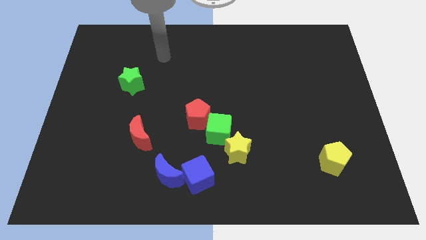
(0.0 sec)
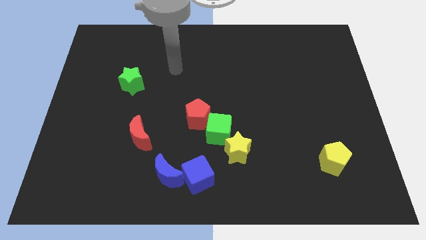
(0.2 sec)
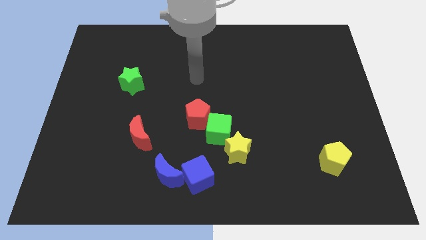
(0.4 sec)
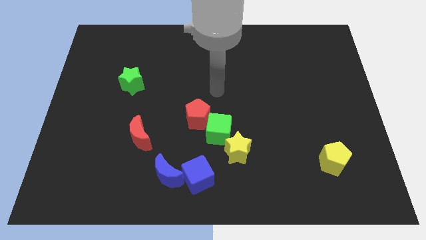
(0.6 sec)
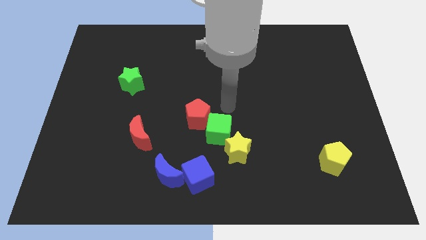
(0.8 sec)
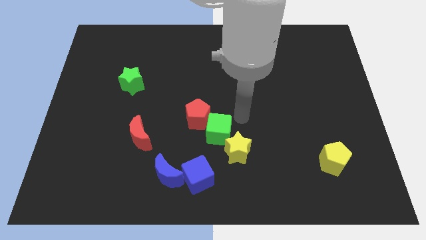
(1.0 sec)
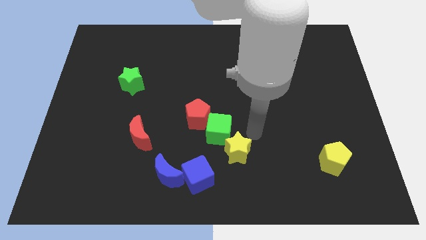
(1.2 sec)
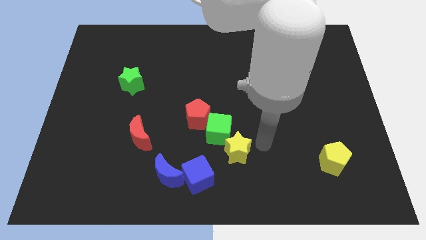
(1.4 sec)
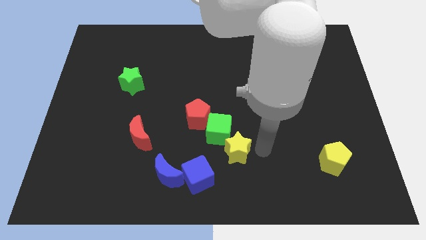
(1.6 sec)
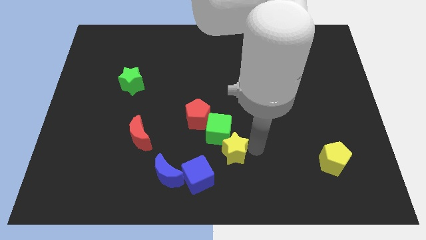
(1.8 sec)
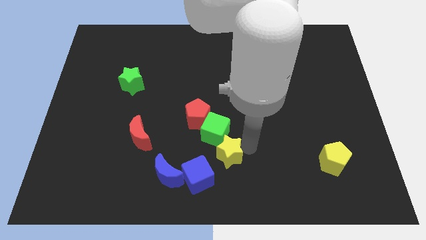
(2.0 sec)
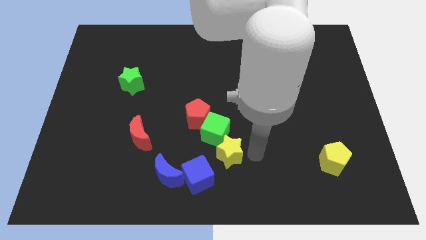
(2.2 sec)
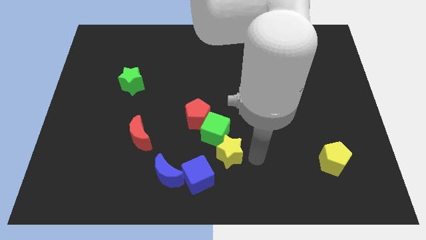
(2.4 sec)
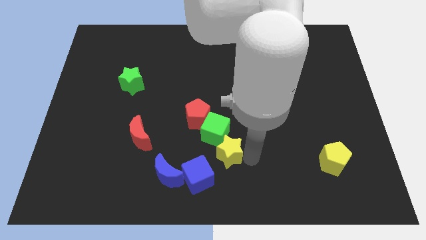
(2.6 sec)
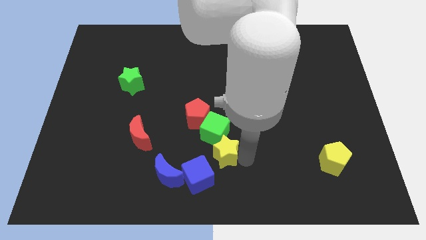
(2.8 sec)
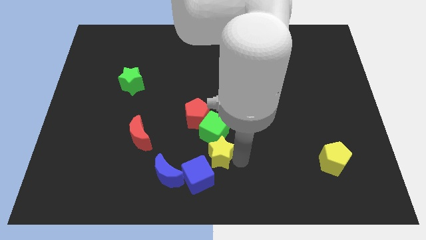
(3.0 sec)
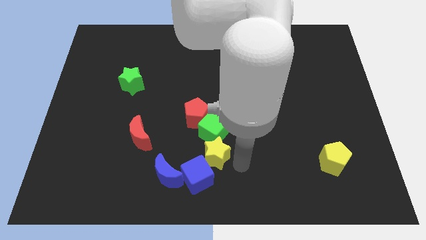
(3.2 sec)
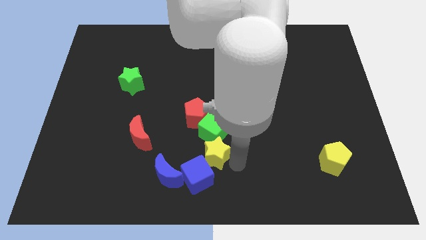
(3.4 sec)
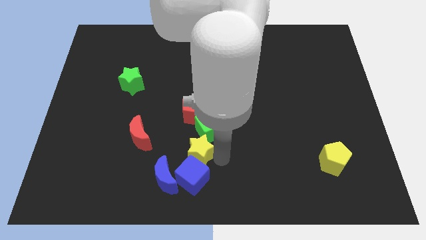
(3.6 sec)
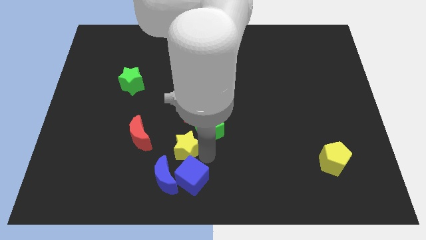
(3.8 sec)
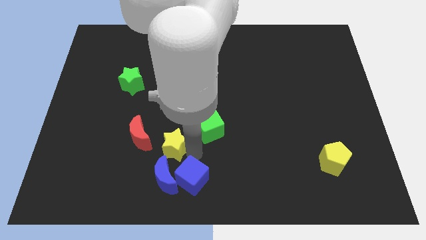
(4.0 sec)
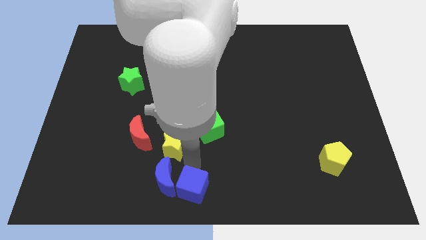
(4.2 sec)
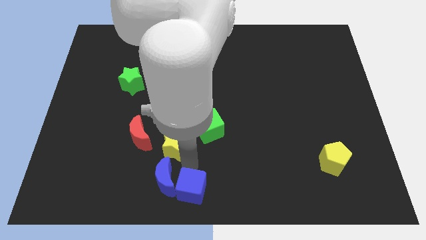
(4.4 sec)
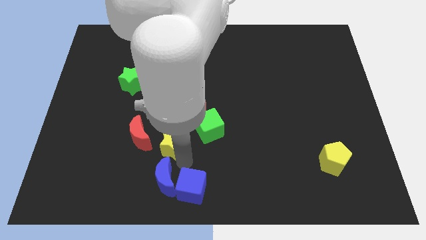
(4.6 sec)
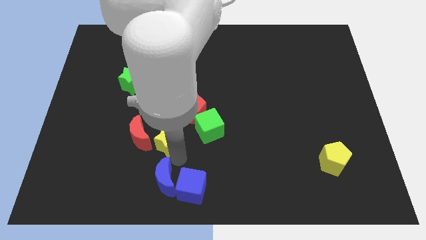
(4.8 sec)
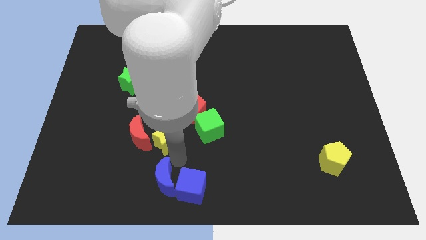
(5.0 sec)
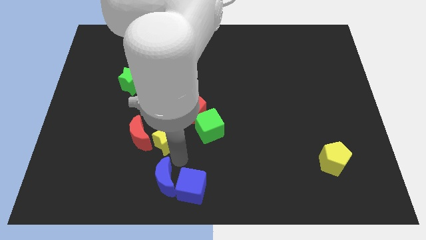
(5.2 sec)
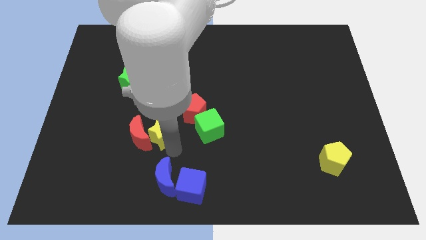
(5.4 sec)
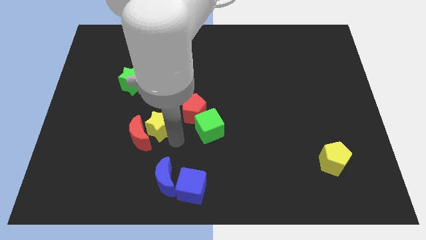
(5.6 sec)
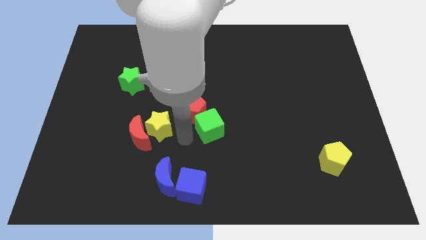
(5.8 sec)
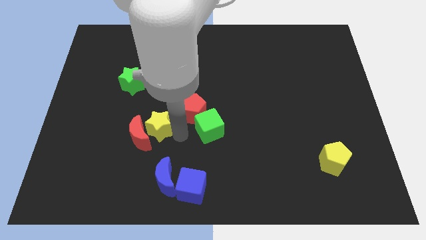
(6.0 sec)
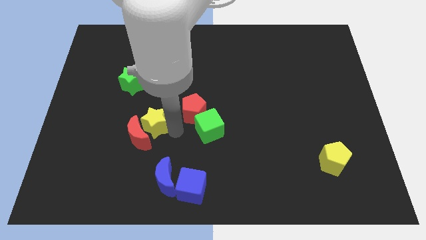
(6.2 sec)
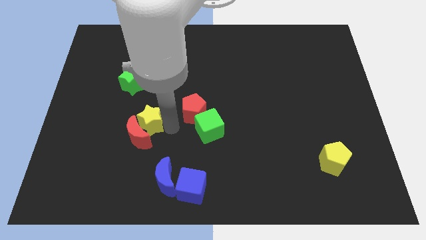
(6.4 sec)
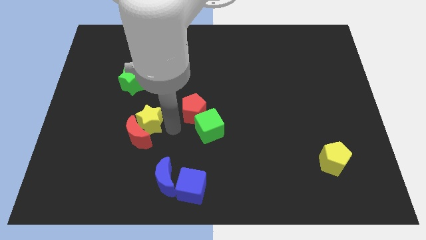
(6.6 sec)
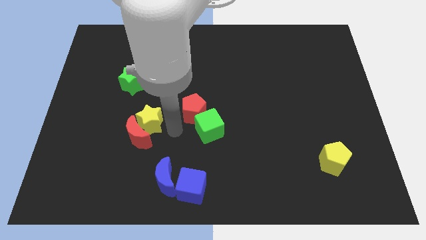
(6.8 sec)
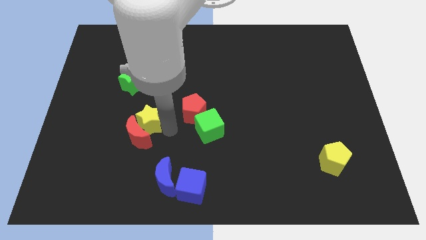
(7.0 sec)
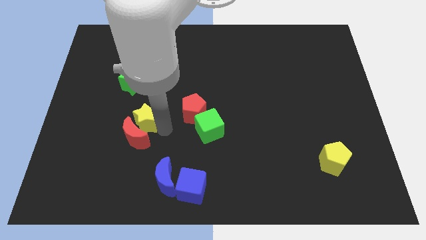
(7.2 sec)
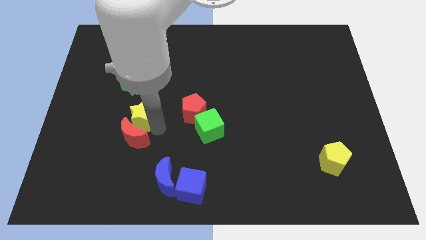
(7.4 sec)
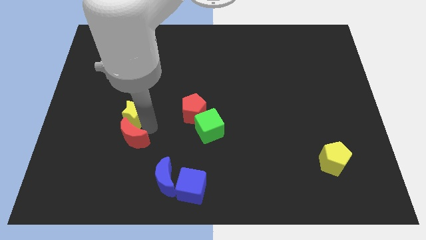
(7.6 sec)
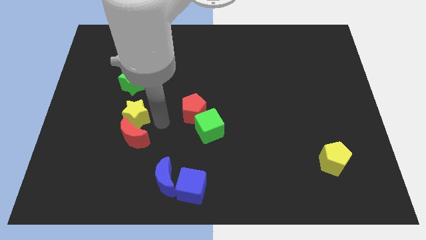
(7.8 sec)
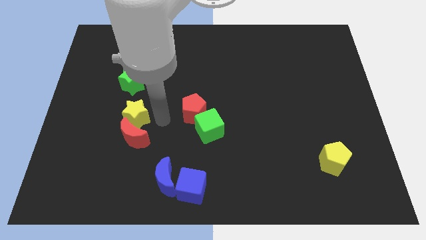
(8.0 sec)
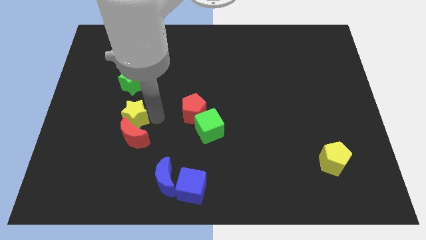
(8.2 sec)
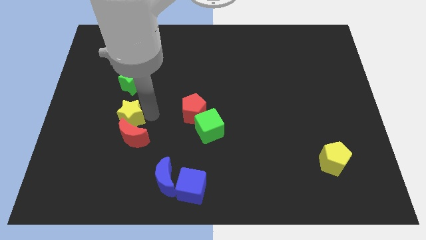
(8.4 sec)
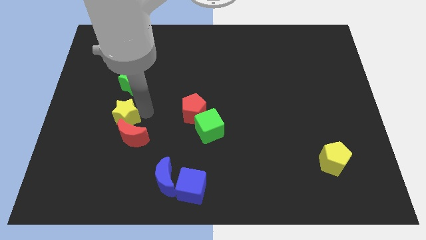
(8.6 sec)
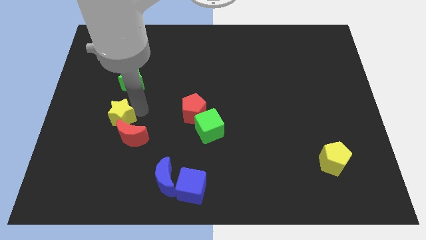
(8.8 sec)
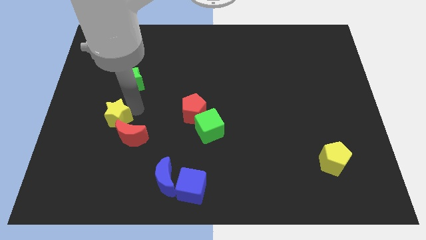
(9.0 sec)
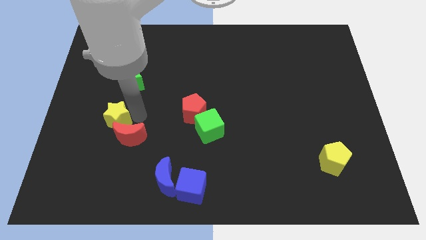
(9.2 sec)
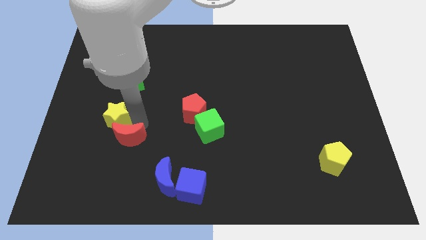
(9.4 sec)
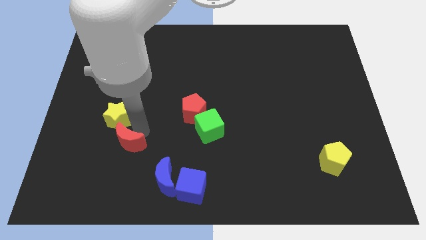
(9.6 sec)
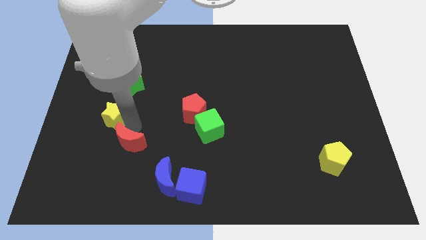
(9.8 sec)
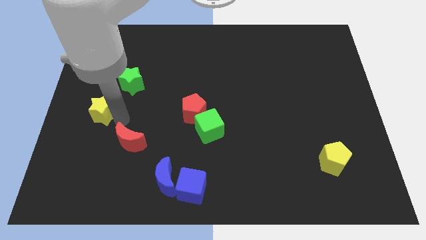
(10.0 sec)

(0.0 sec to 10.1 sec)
move the yellow star to the left side

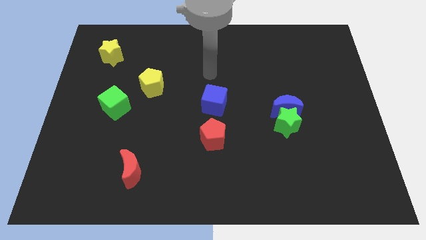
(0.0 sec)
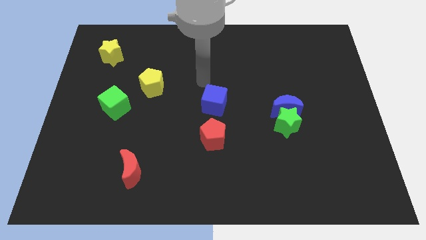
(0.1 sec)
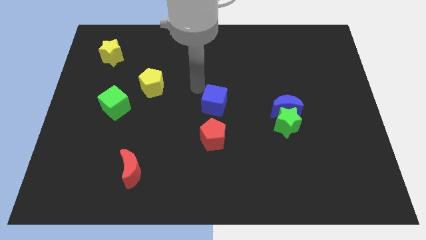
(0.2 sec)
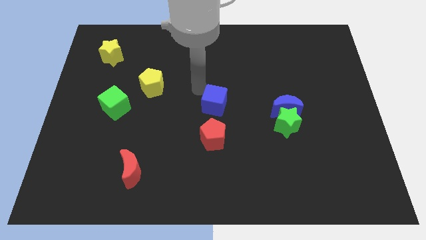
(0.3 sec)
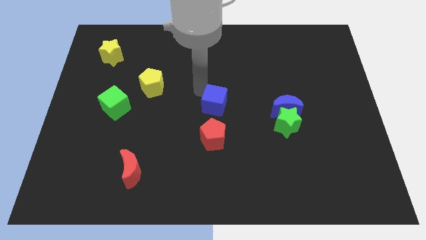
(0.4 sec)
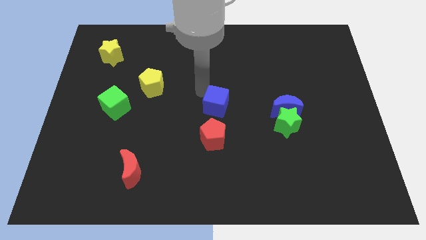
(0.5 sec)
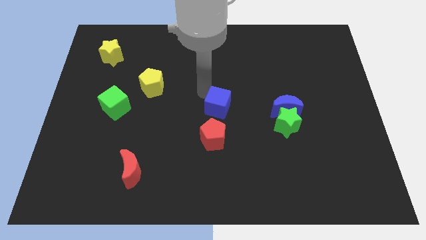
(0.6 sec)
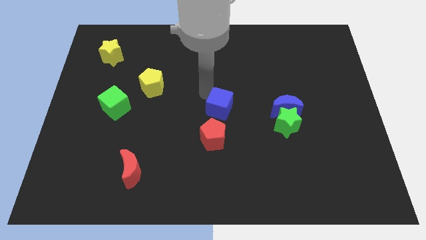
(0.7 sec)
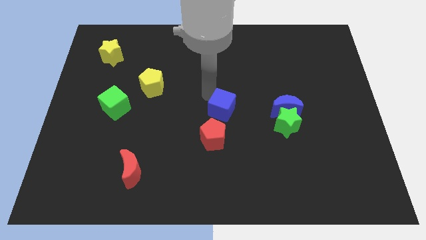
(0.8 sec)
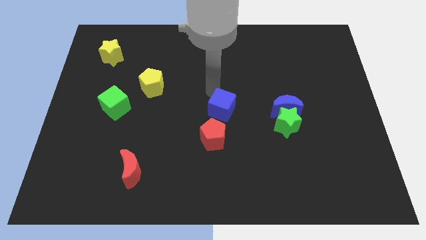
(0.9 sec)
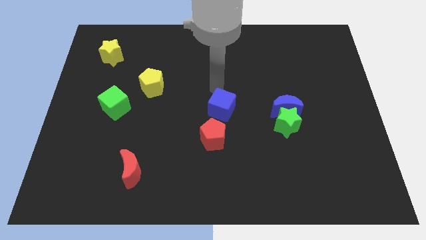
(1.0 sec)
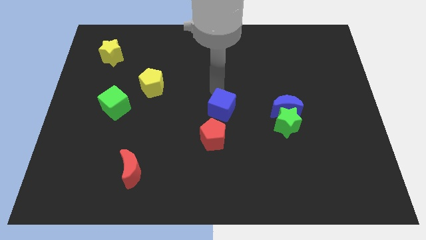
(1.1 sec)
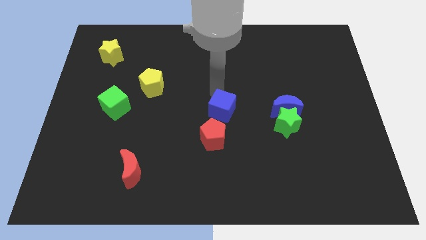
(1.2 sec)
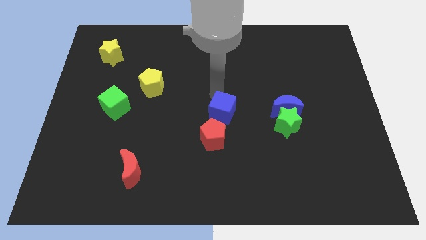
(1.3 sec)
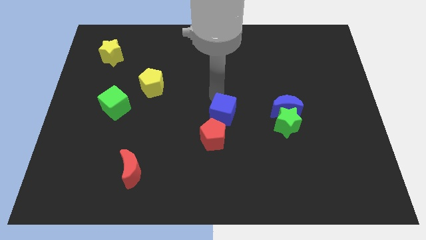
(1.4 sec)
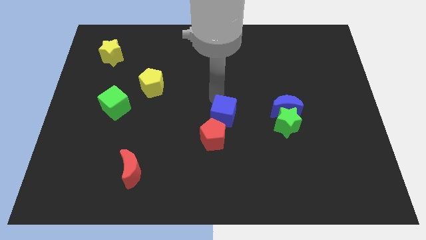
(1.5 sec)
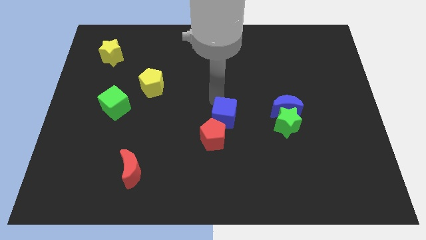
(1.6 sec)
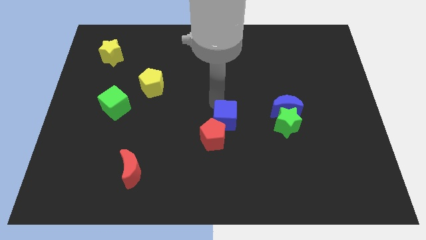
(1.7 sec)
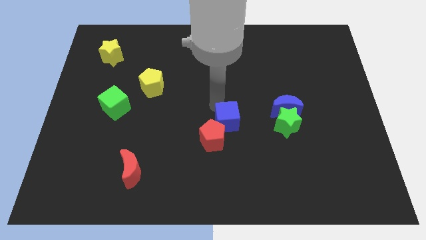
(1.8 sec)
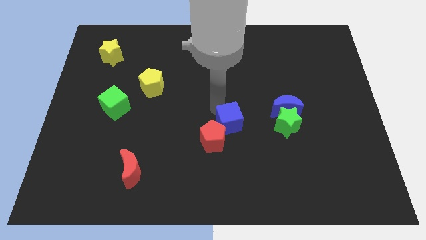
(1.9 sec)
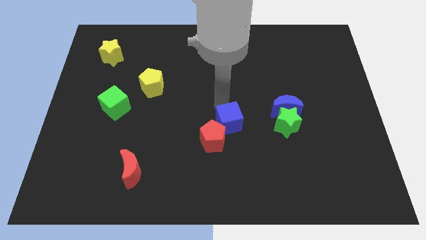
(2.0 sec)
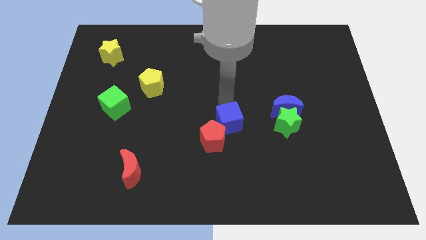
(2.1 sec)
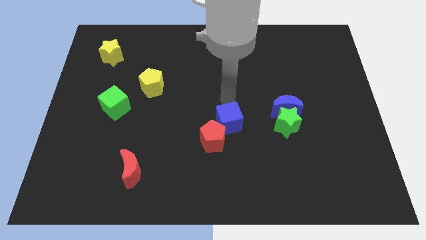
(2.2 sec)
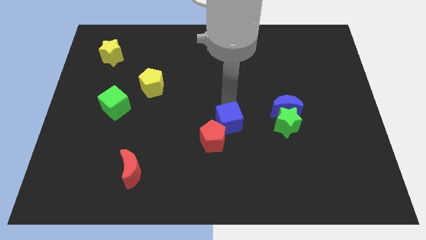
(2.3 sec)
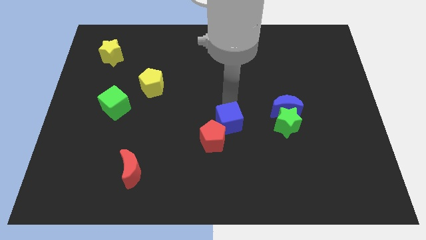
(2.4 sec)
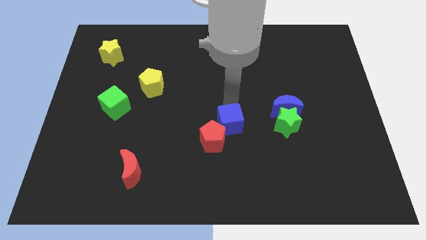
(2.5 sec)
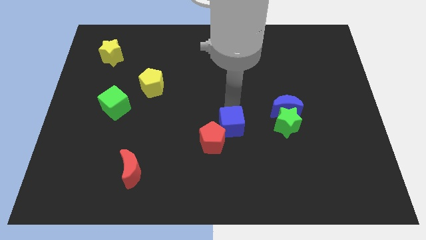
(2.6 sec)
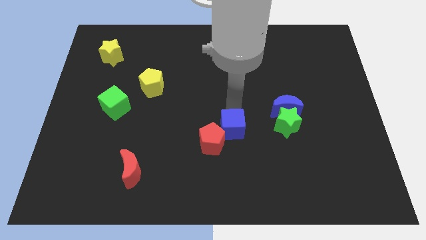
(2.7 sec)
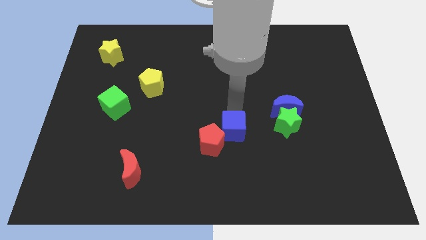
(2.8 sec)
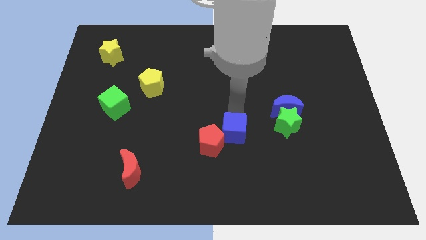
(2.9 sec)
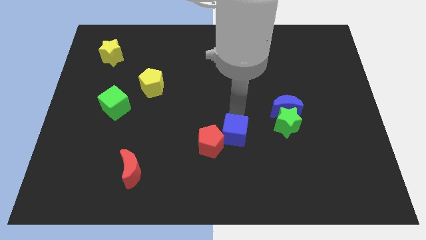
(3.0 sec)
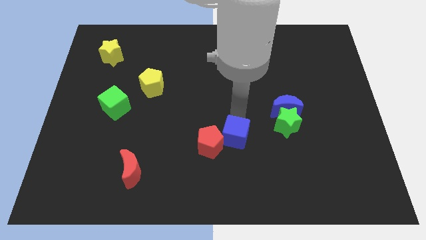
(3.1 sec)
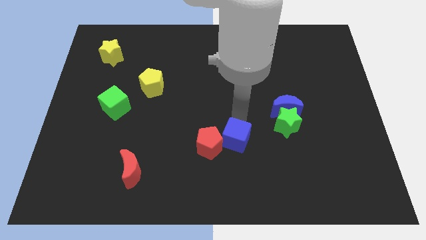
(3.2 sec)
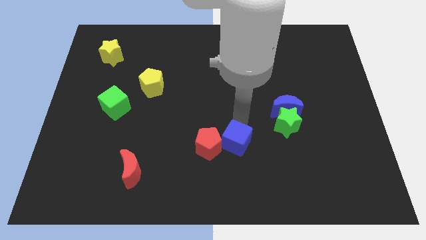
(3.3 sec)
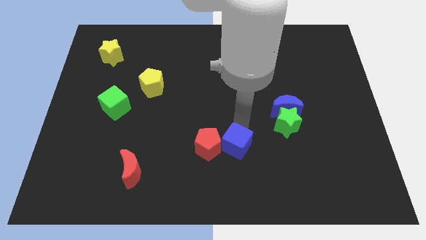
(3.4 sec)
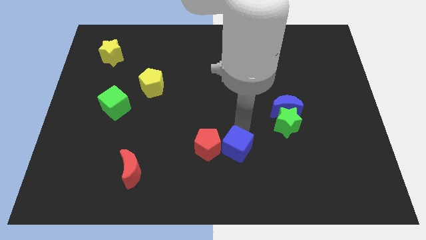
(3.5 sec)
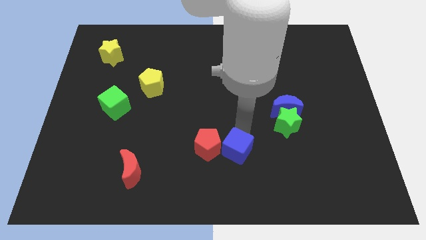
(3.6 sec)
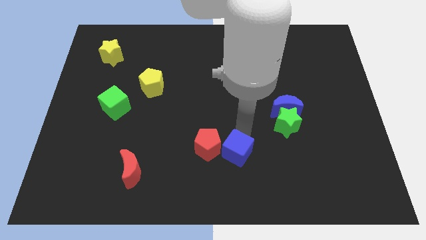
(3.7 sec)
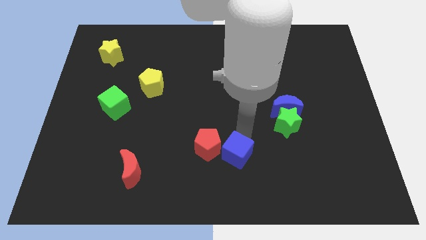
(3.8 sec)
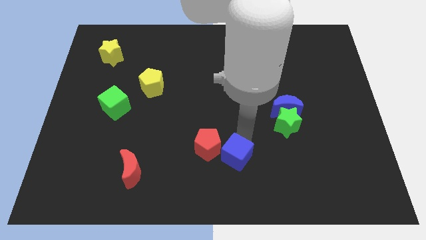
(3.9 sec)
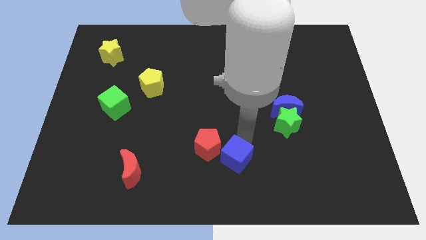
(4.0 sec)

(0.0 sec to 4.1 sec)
slide the blue cube to the bottom side
